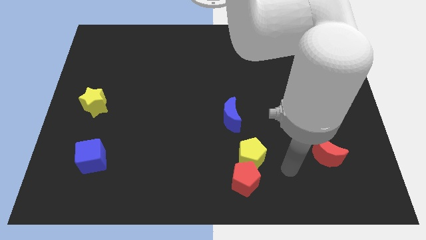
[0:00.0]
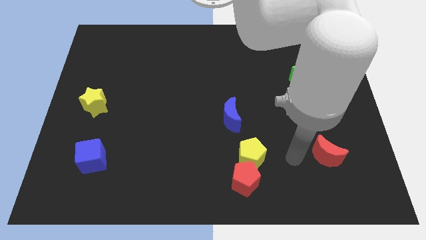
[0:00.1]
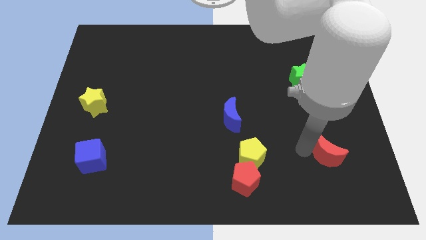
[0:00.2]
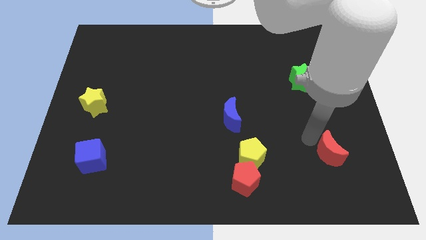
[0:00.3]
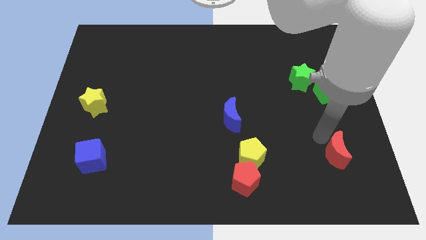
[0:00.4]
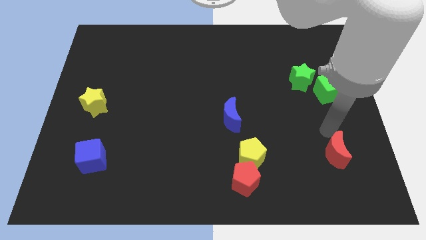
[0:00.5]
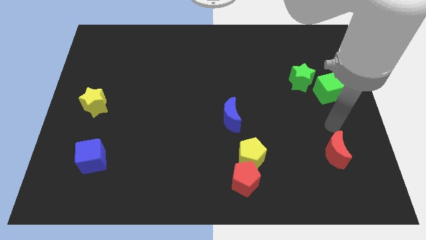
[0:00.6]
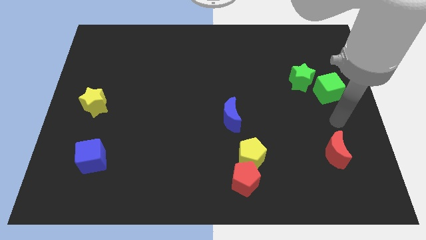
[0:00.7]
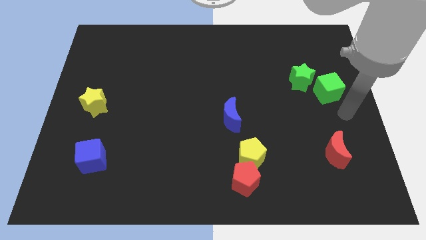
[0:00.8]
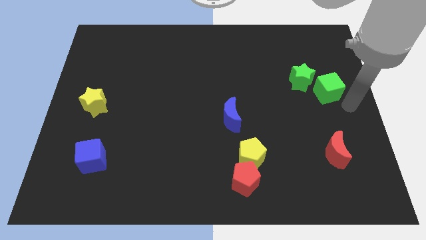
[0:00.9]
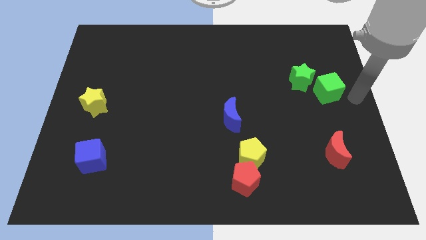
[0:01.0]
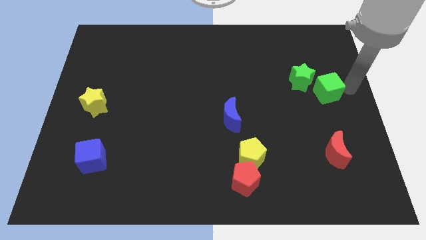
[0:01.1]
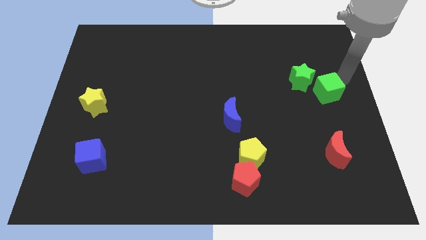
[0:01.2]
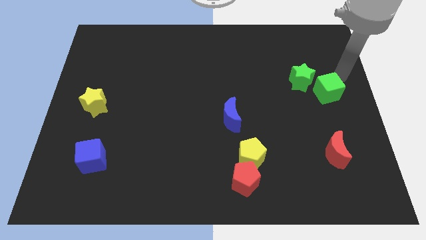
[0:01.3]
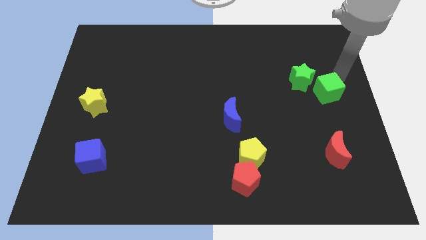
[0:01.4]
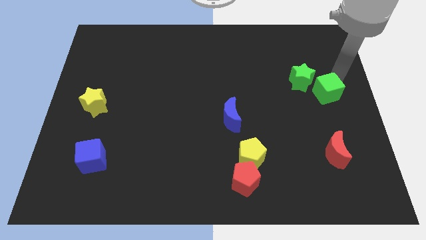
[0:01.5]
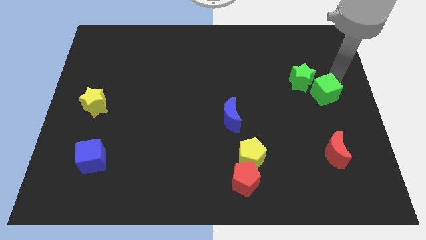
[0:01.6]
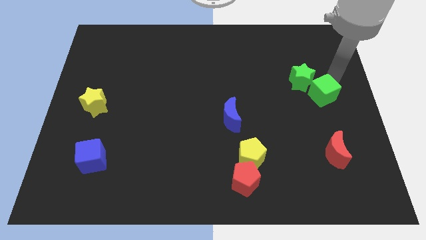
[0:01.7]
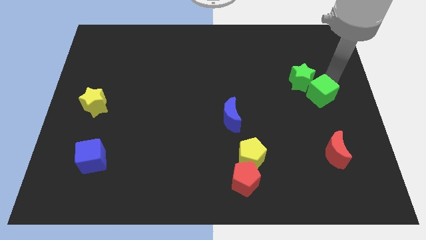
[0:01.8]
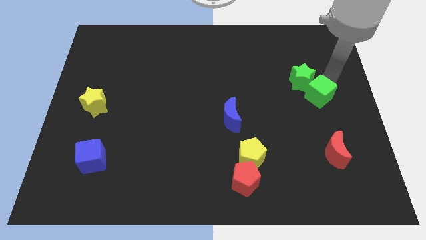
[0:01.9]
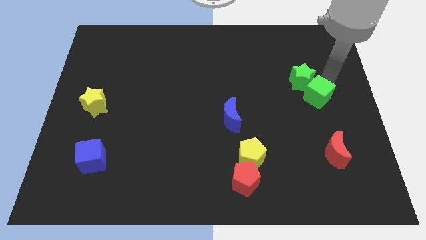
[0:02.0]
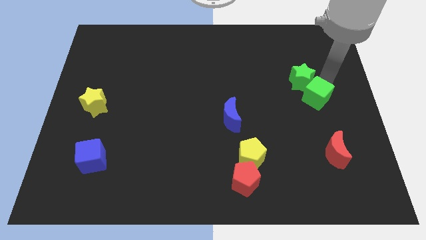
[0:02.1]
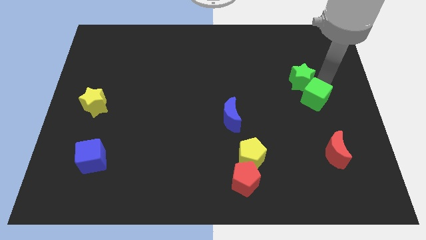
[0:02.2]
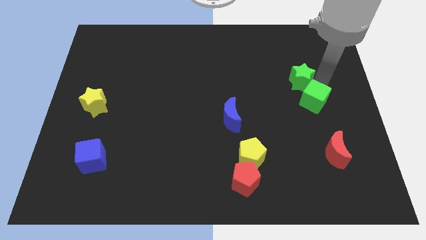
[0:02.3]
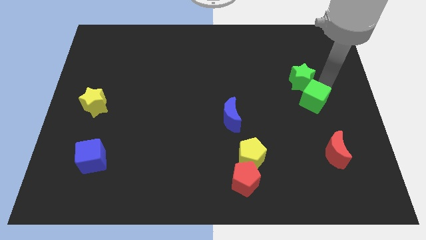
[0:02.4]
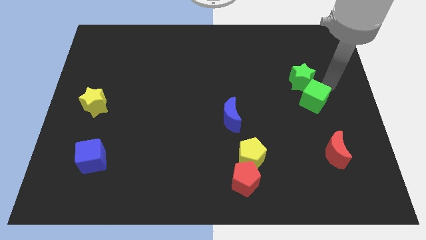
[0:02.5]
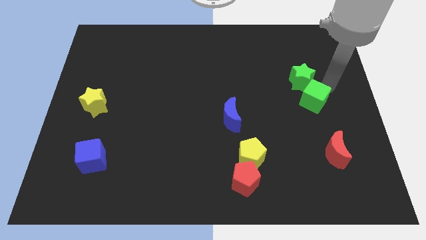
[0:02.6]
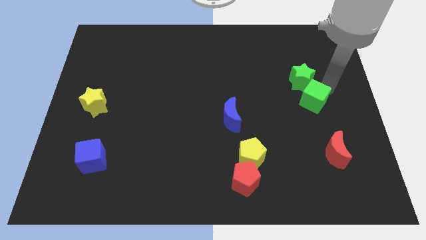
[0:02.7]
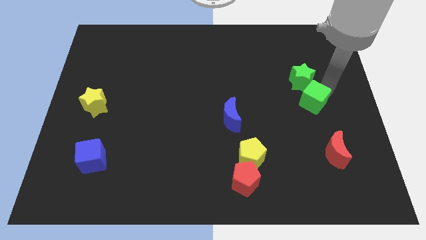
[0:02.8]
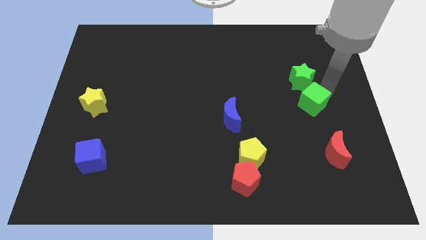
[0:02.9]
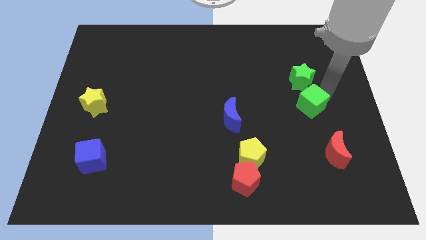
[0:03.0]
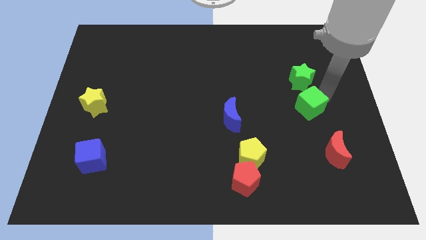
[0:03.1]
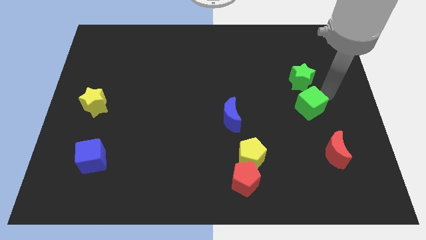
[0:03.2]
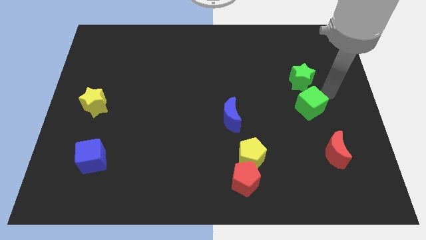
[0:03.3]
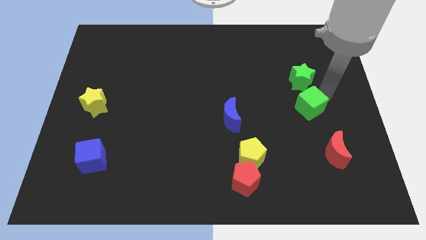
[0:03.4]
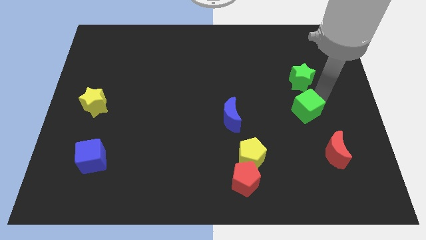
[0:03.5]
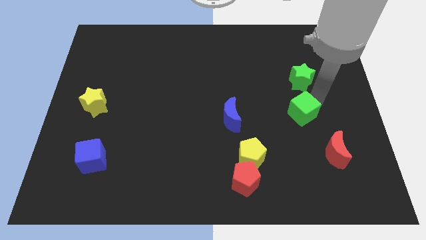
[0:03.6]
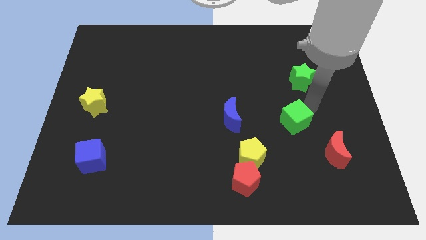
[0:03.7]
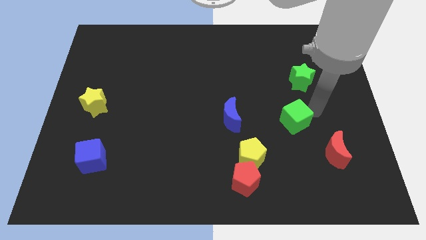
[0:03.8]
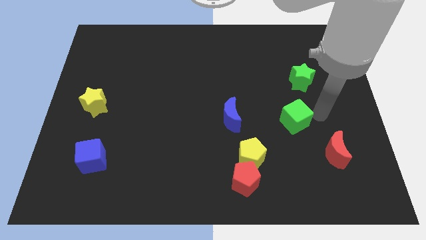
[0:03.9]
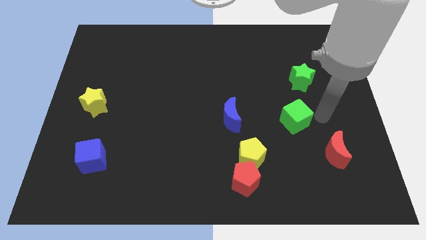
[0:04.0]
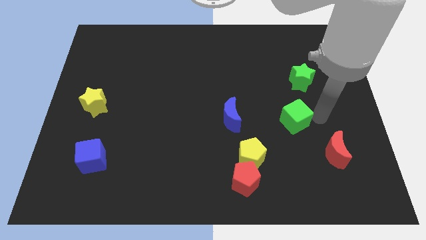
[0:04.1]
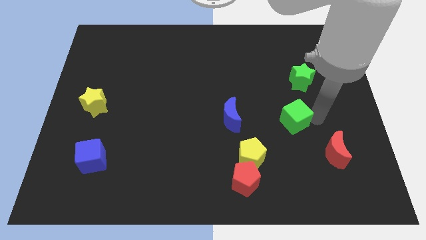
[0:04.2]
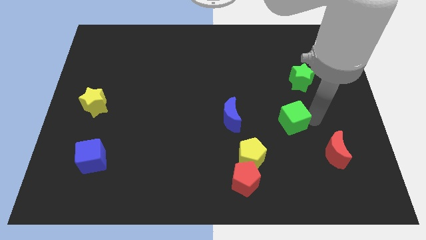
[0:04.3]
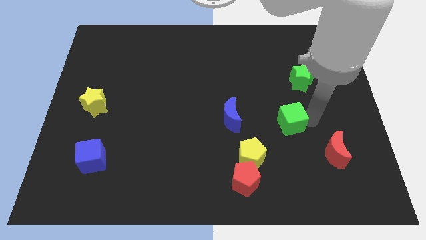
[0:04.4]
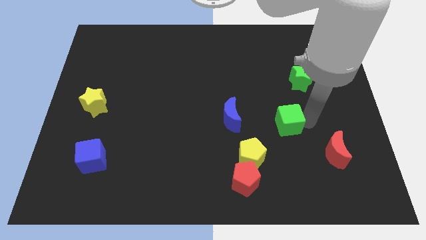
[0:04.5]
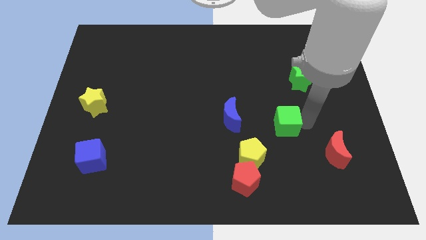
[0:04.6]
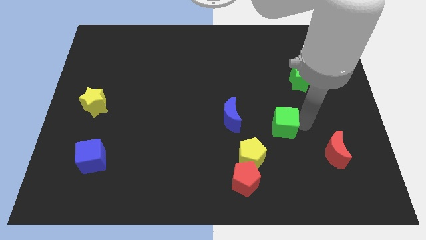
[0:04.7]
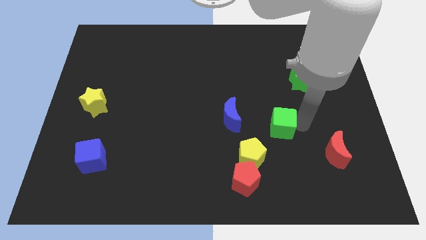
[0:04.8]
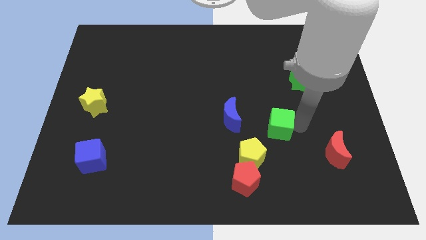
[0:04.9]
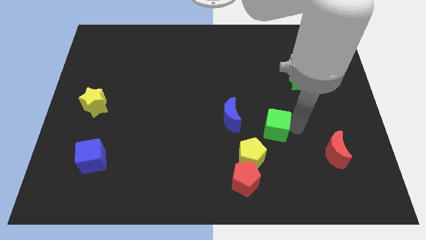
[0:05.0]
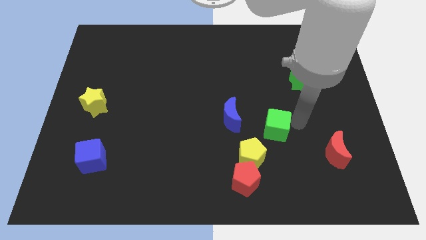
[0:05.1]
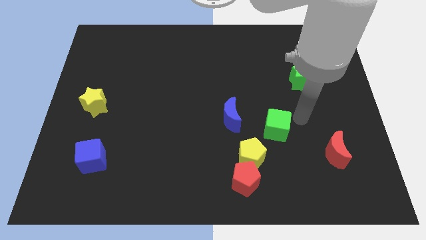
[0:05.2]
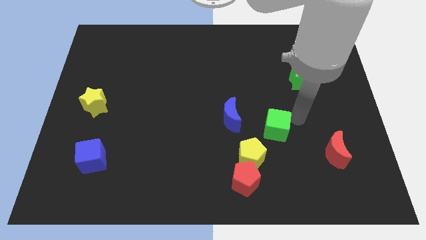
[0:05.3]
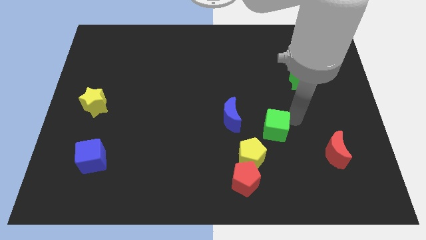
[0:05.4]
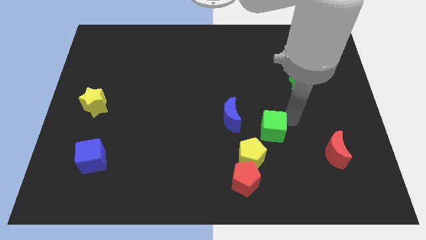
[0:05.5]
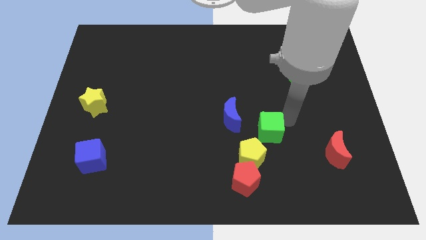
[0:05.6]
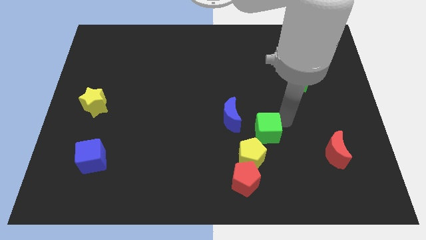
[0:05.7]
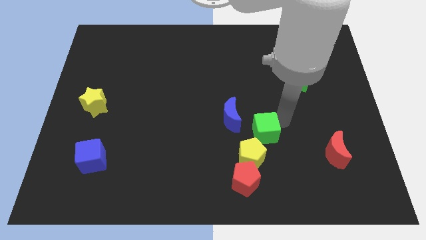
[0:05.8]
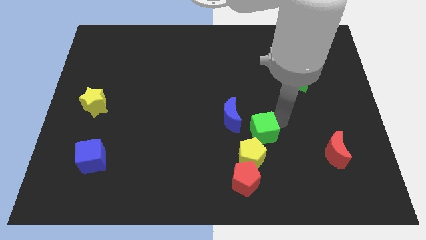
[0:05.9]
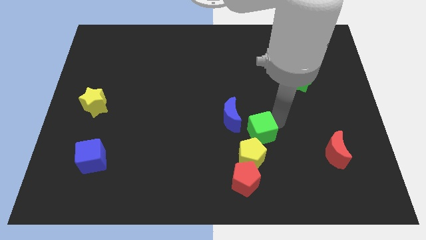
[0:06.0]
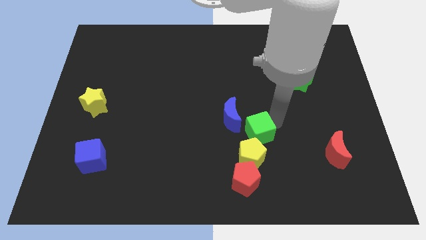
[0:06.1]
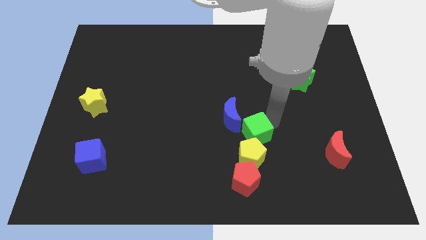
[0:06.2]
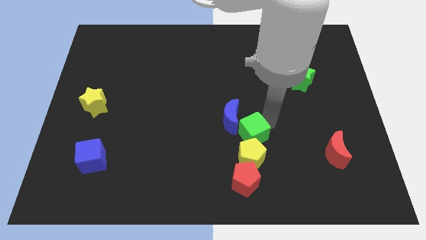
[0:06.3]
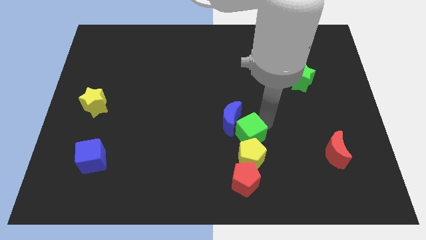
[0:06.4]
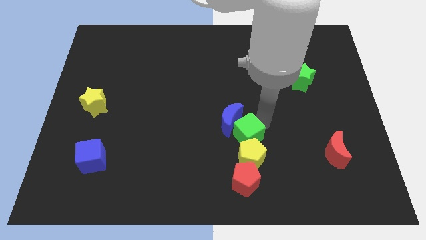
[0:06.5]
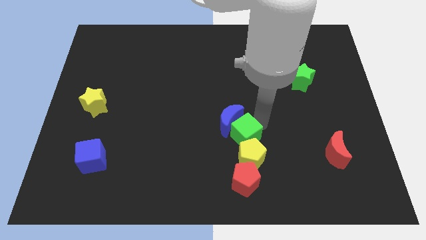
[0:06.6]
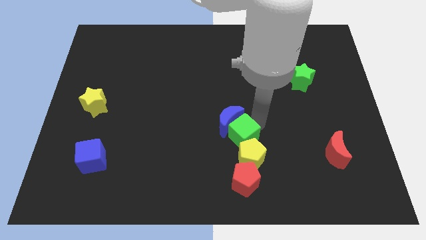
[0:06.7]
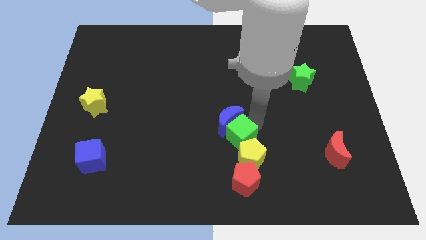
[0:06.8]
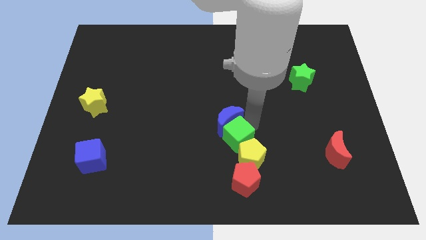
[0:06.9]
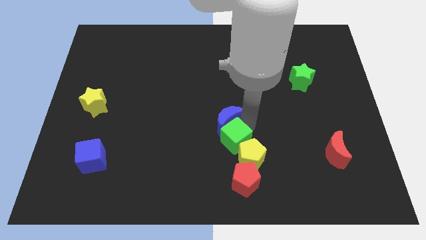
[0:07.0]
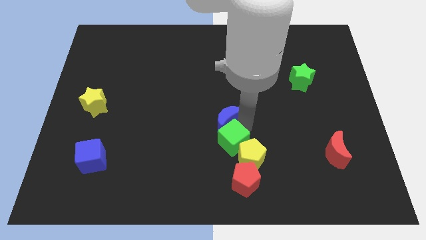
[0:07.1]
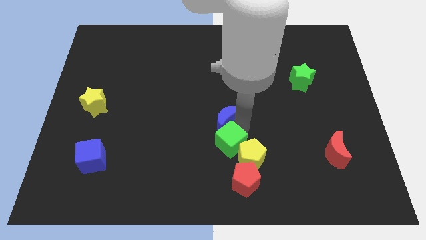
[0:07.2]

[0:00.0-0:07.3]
move the green cube to the top left side of the red pentagon
